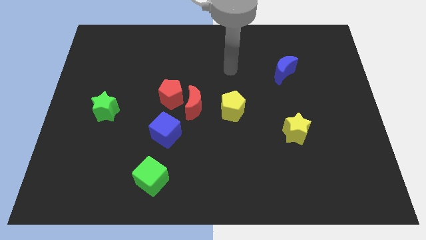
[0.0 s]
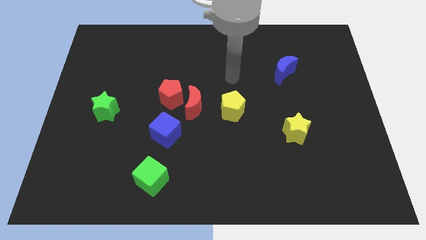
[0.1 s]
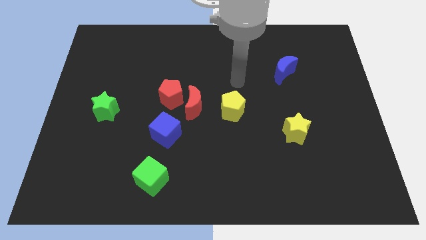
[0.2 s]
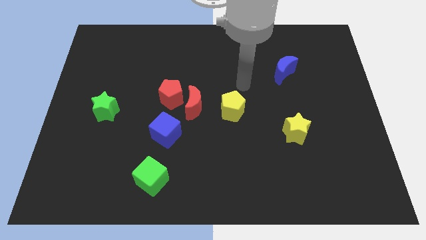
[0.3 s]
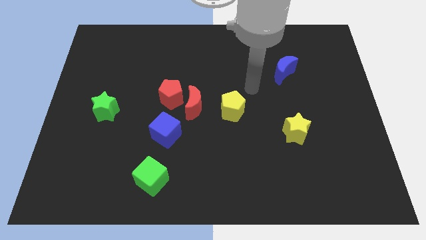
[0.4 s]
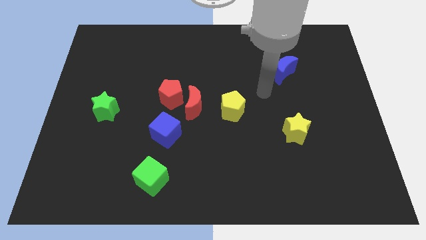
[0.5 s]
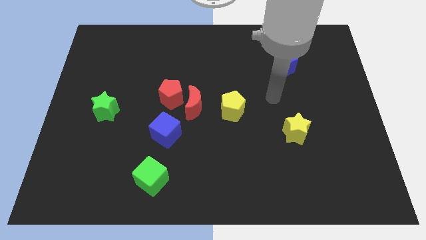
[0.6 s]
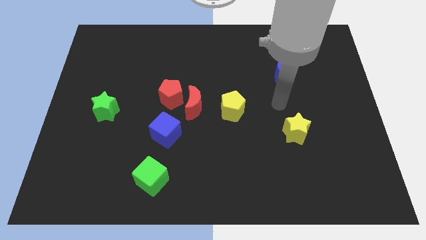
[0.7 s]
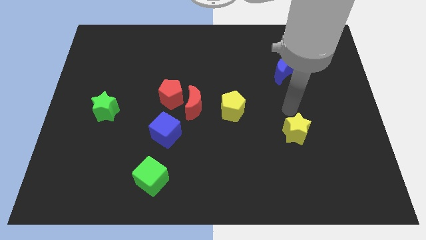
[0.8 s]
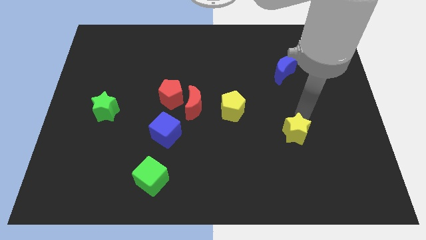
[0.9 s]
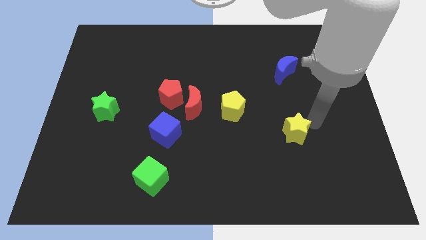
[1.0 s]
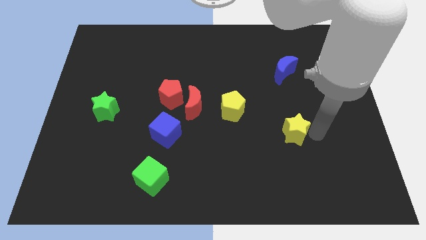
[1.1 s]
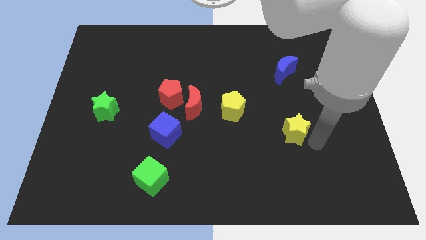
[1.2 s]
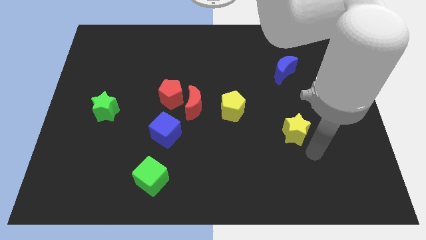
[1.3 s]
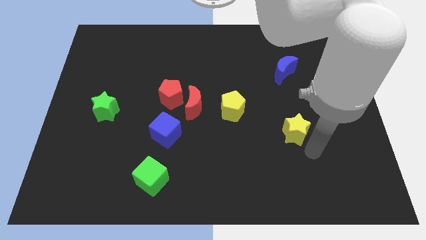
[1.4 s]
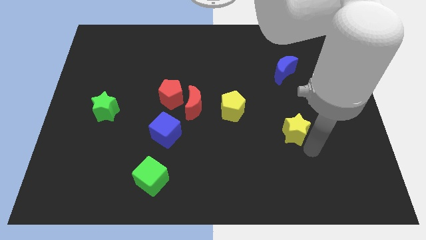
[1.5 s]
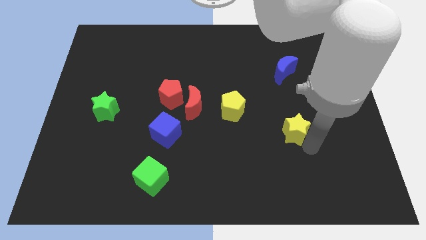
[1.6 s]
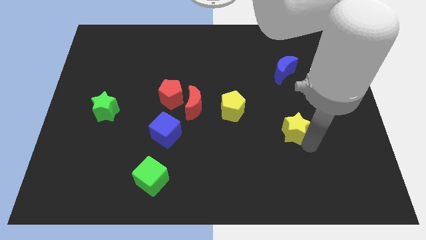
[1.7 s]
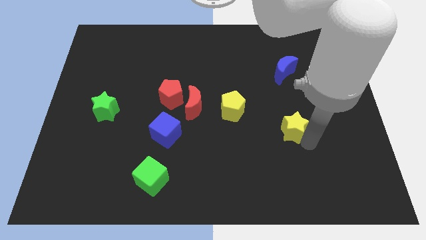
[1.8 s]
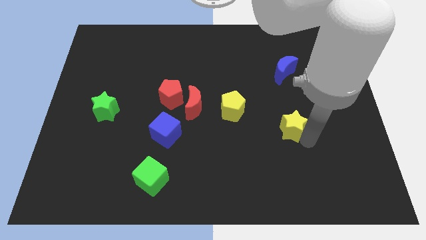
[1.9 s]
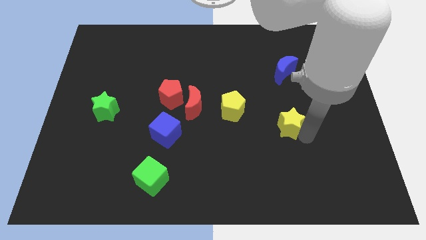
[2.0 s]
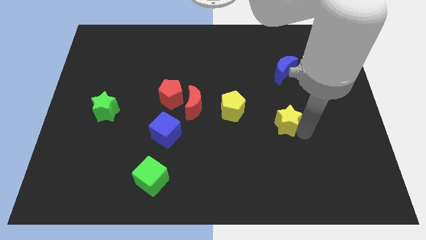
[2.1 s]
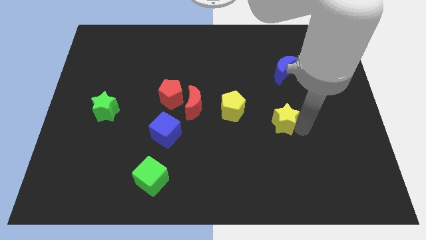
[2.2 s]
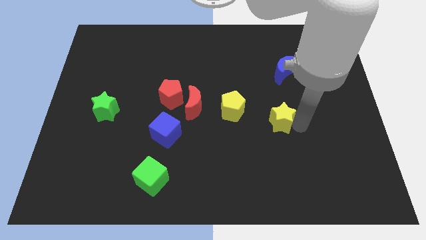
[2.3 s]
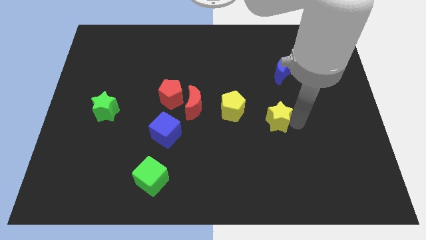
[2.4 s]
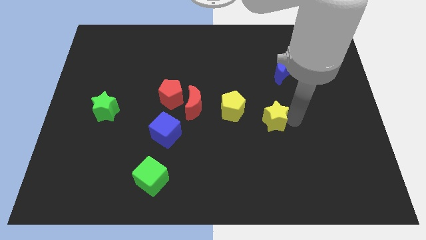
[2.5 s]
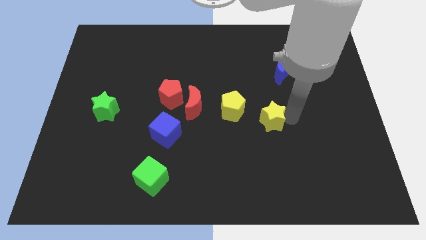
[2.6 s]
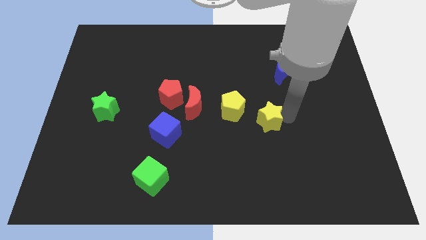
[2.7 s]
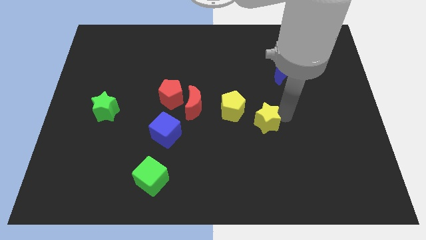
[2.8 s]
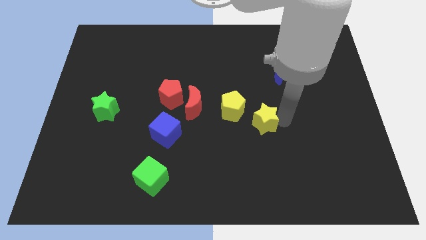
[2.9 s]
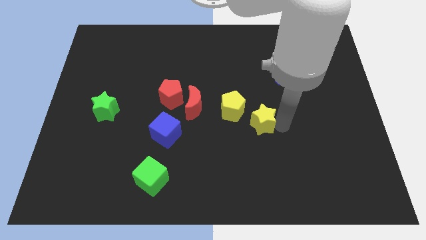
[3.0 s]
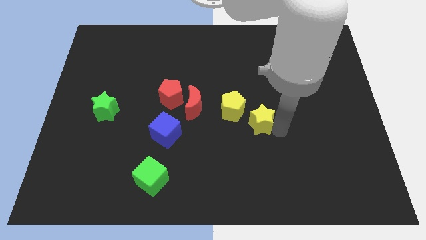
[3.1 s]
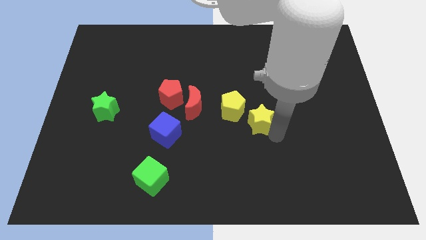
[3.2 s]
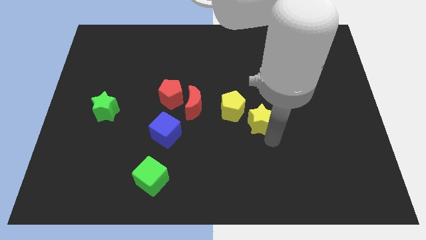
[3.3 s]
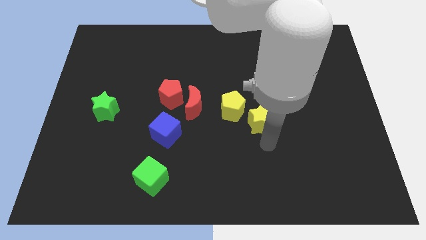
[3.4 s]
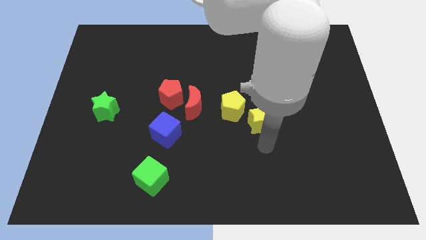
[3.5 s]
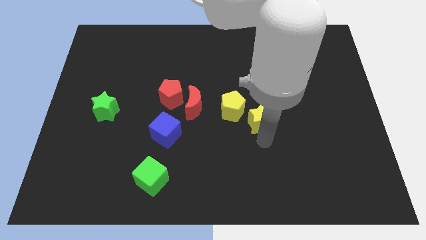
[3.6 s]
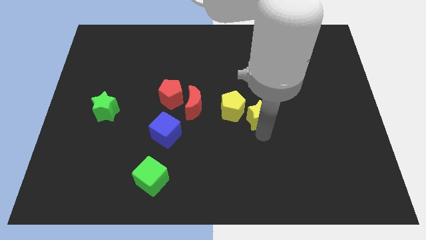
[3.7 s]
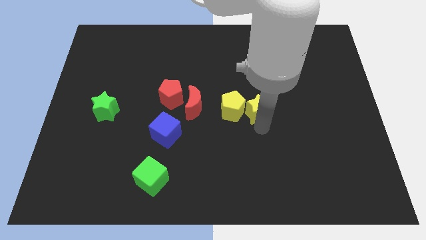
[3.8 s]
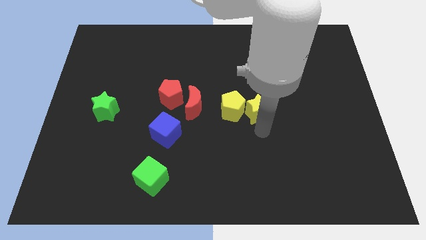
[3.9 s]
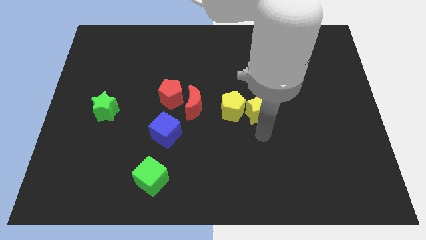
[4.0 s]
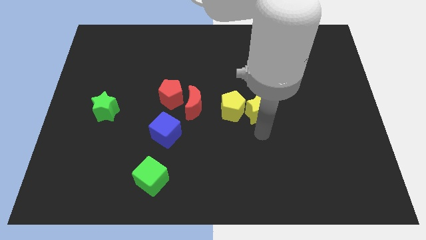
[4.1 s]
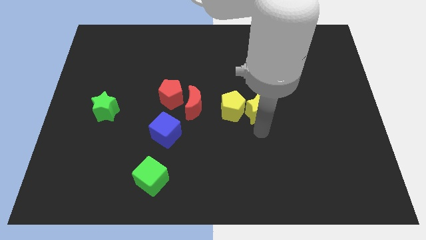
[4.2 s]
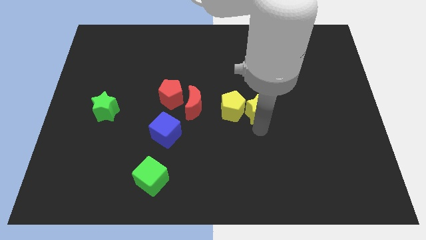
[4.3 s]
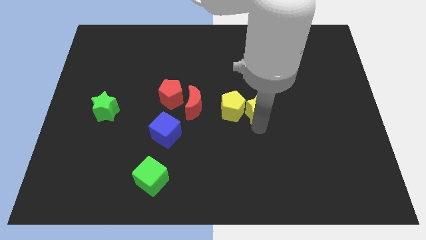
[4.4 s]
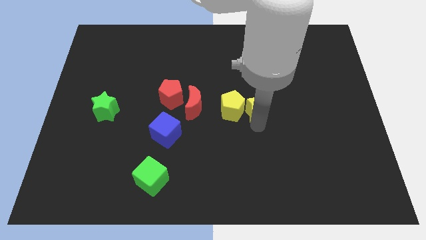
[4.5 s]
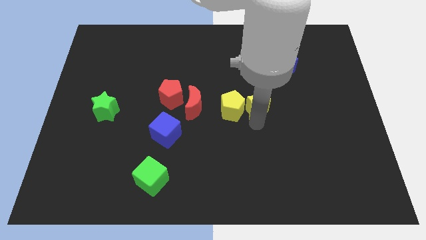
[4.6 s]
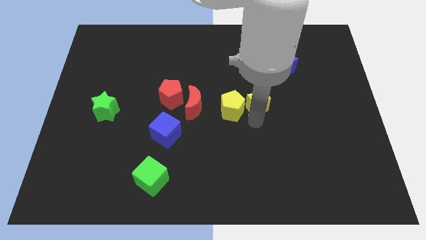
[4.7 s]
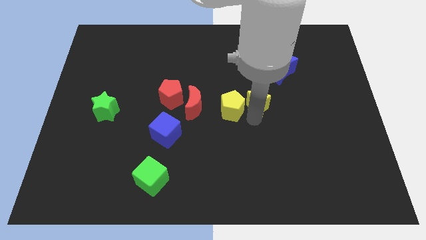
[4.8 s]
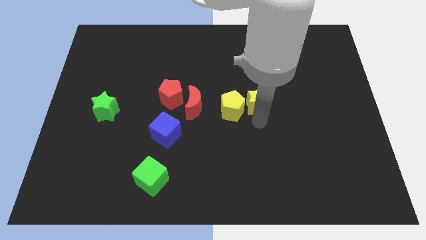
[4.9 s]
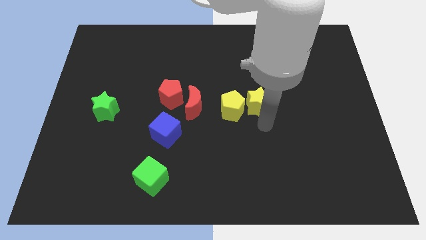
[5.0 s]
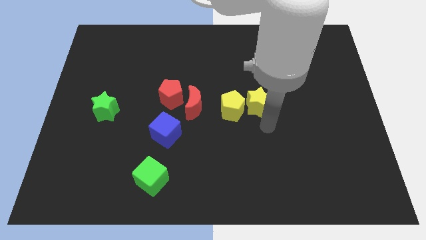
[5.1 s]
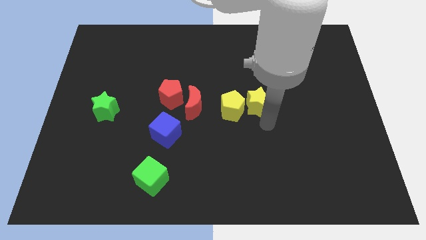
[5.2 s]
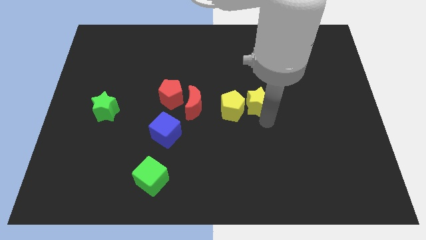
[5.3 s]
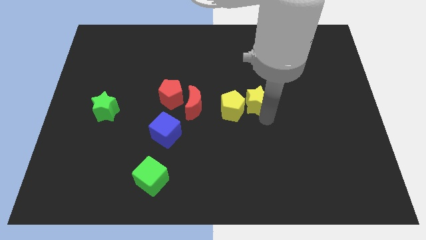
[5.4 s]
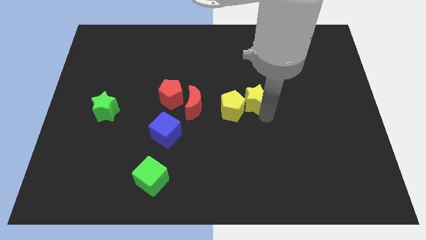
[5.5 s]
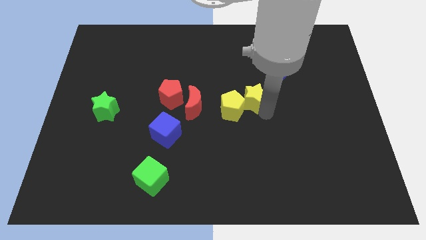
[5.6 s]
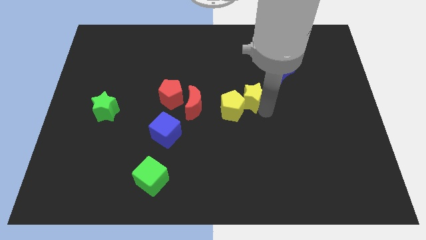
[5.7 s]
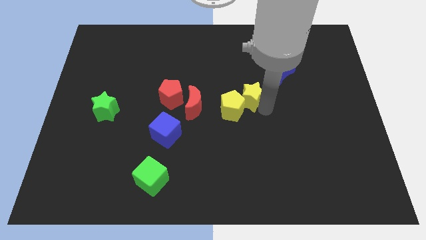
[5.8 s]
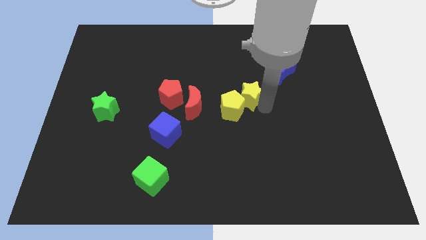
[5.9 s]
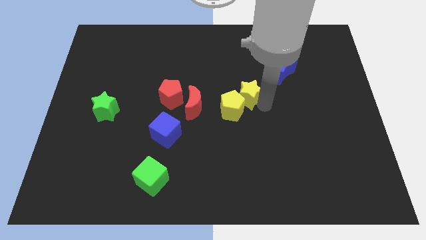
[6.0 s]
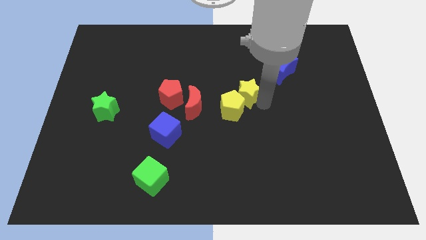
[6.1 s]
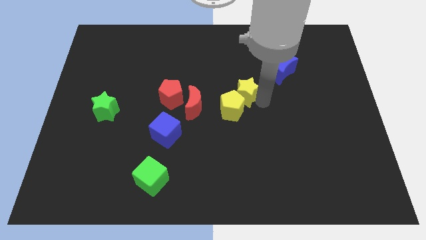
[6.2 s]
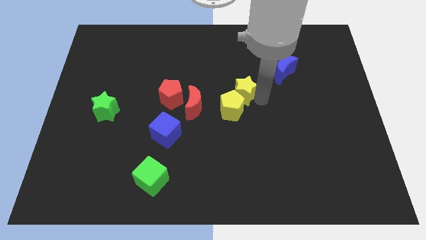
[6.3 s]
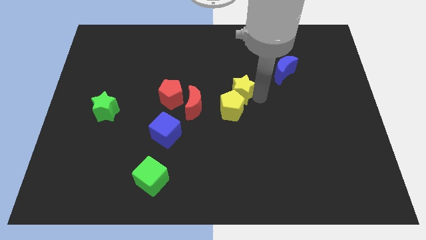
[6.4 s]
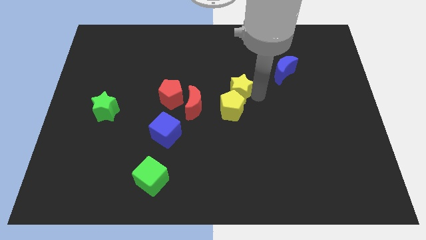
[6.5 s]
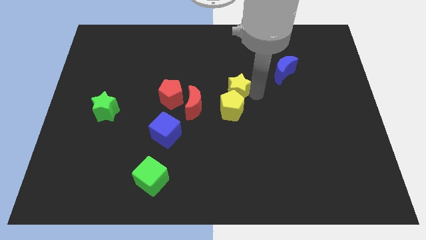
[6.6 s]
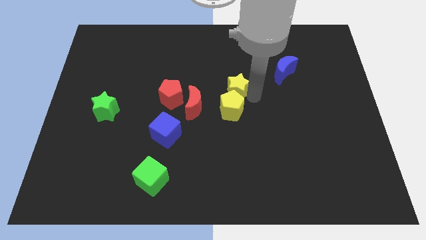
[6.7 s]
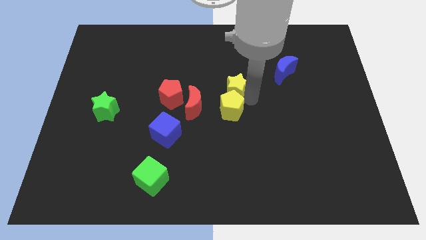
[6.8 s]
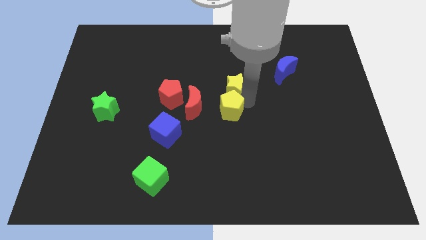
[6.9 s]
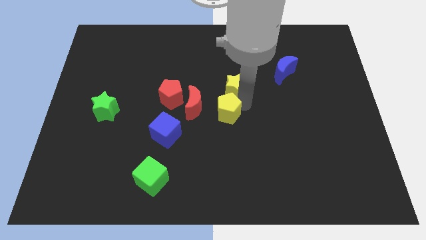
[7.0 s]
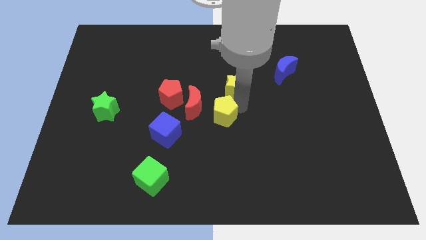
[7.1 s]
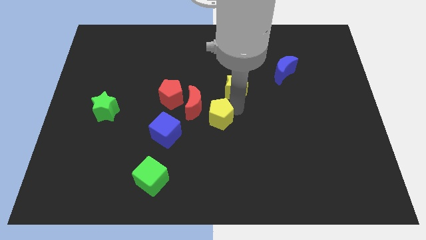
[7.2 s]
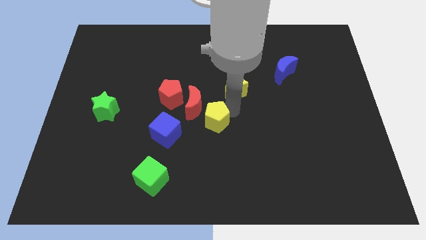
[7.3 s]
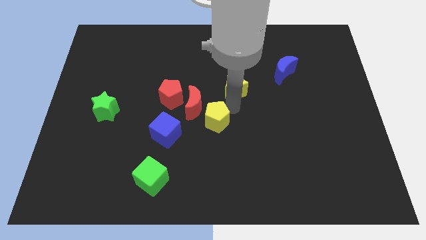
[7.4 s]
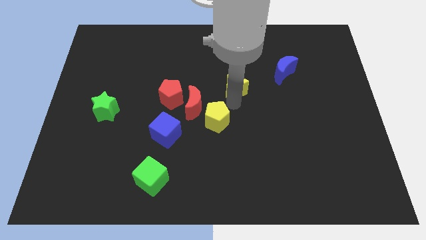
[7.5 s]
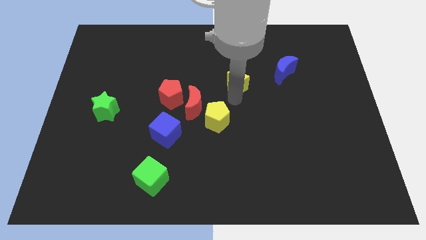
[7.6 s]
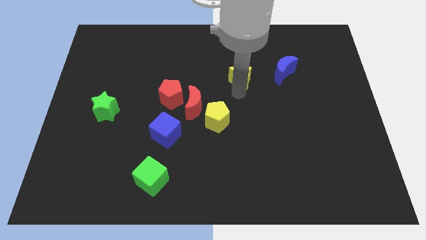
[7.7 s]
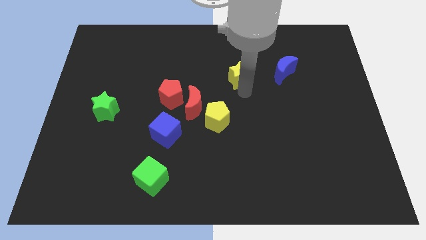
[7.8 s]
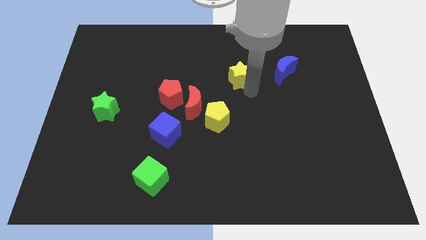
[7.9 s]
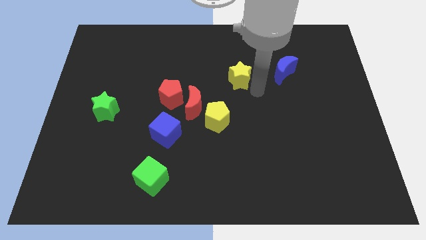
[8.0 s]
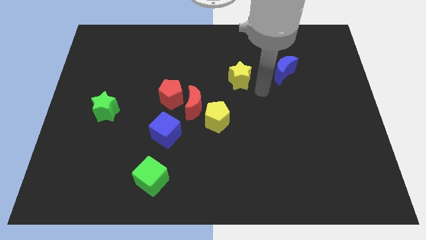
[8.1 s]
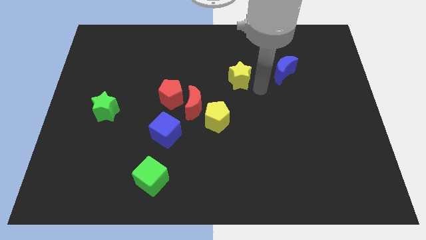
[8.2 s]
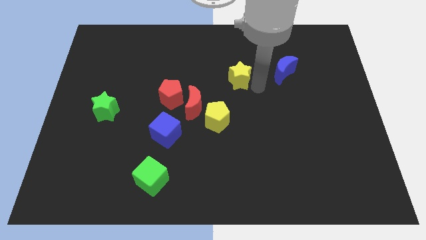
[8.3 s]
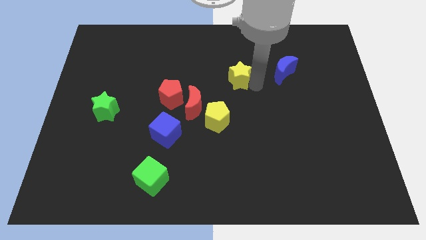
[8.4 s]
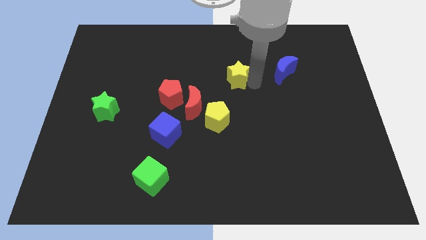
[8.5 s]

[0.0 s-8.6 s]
slide the yellow star diagonally up and left
